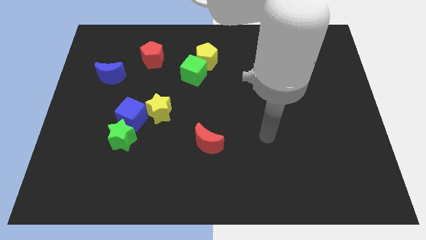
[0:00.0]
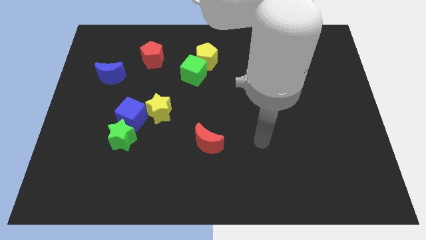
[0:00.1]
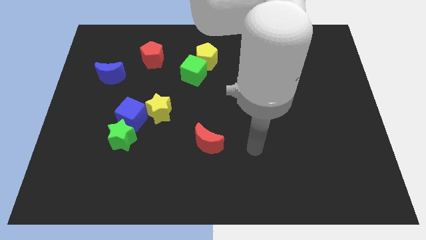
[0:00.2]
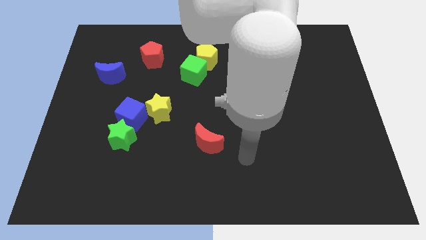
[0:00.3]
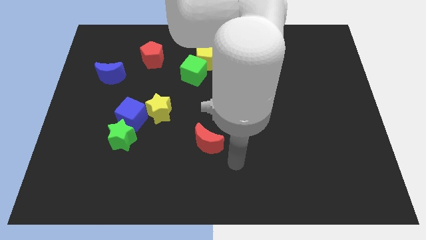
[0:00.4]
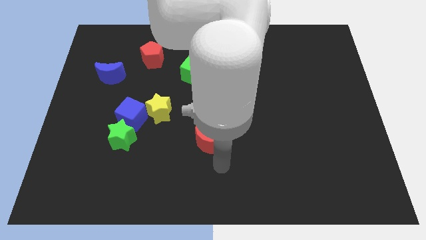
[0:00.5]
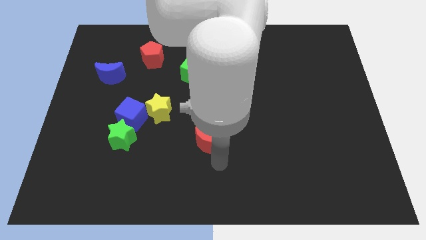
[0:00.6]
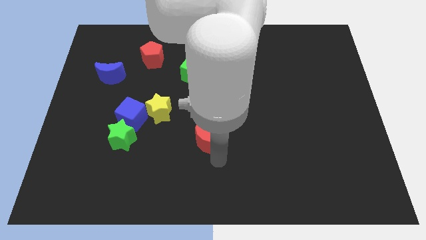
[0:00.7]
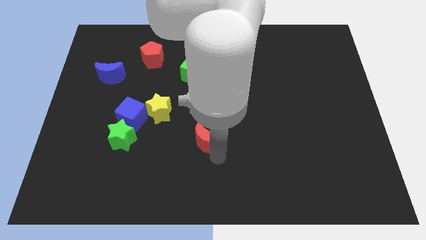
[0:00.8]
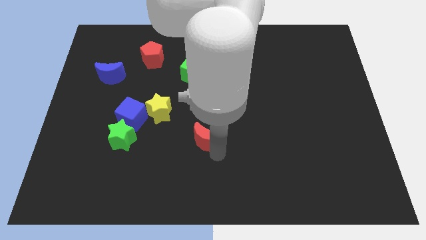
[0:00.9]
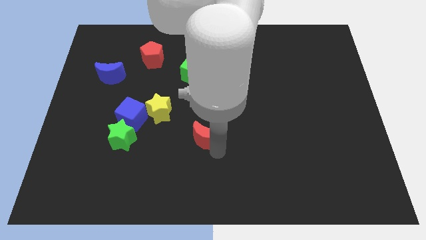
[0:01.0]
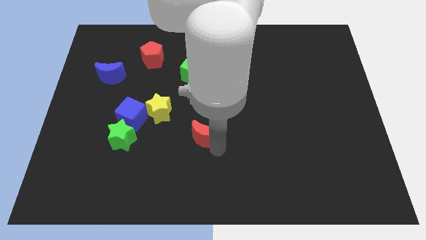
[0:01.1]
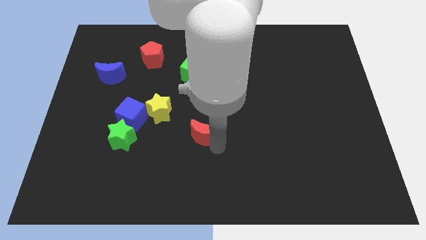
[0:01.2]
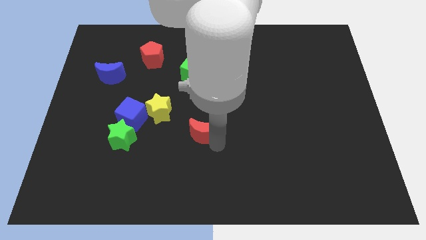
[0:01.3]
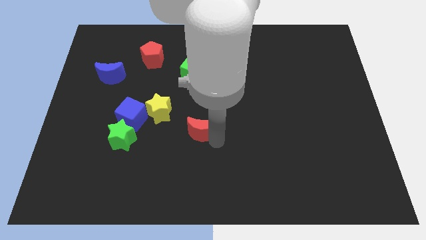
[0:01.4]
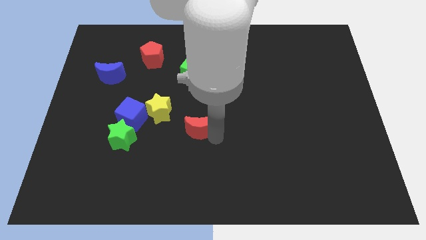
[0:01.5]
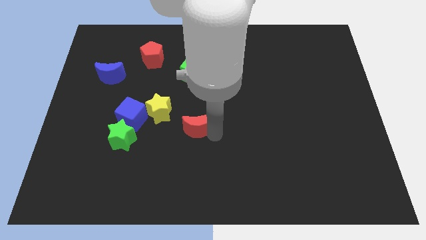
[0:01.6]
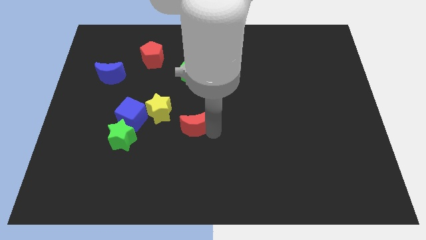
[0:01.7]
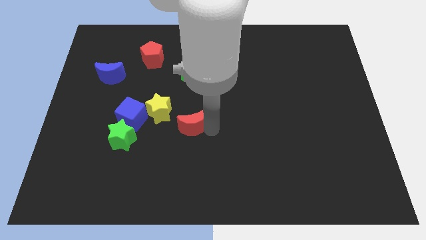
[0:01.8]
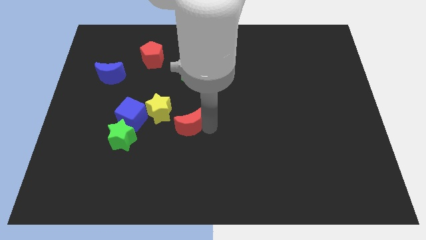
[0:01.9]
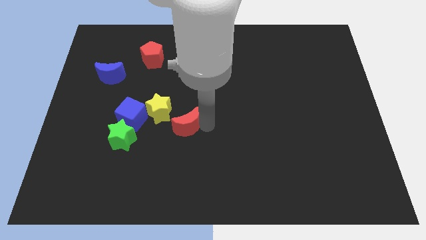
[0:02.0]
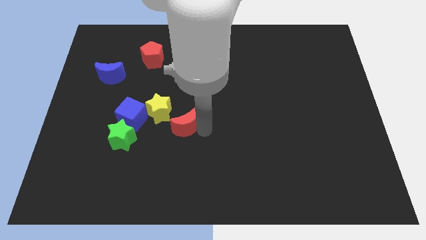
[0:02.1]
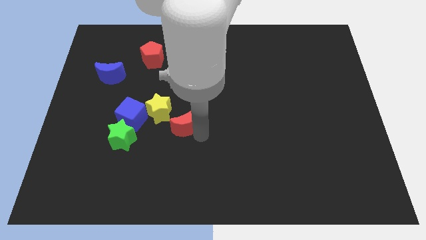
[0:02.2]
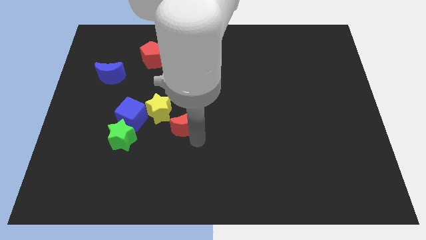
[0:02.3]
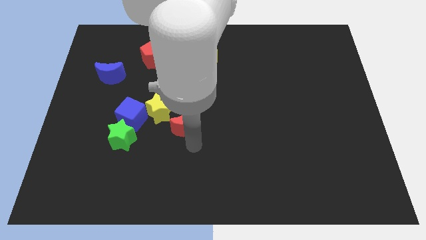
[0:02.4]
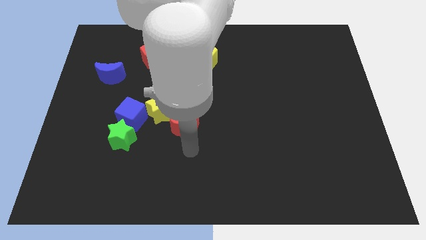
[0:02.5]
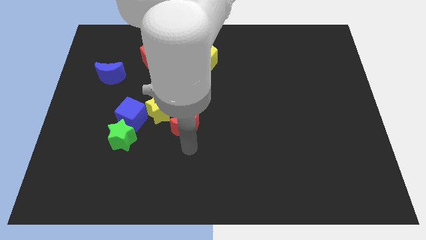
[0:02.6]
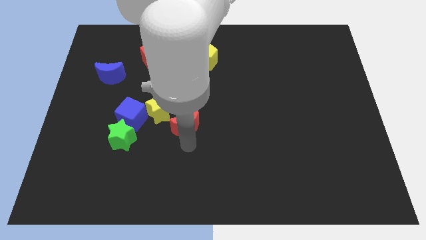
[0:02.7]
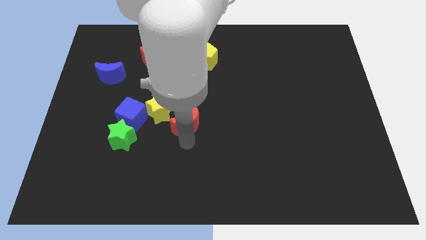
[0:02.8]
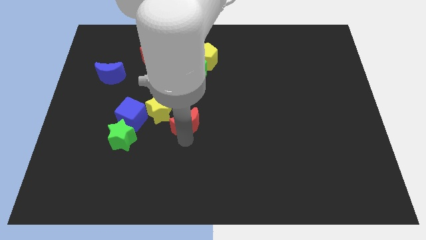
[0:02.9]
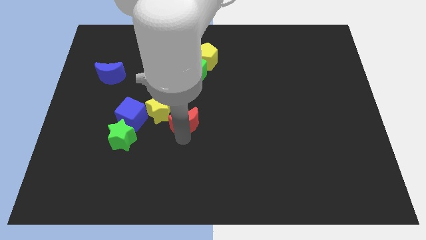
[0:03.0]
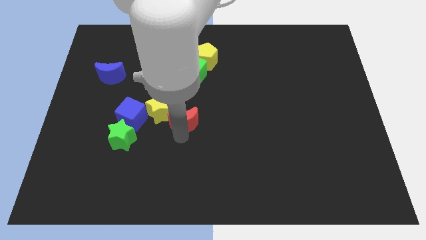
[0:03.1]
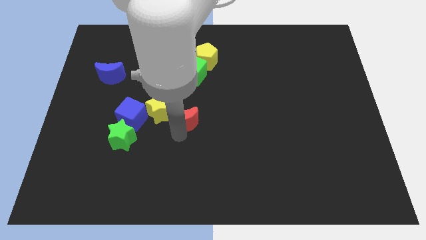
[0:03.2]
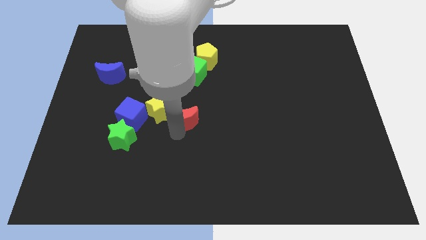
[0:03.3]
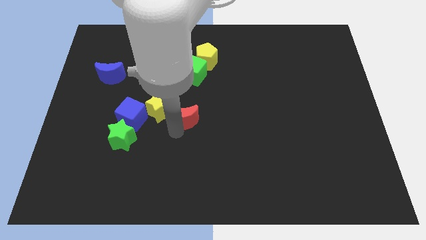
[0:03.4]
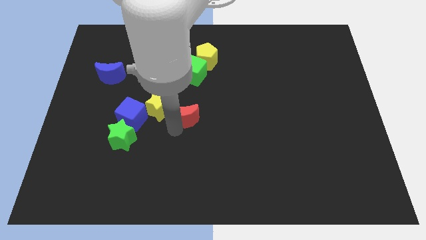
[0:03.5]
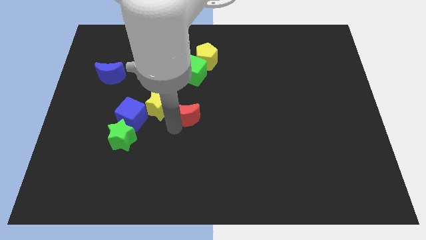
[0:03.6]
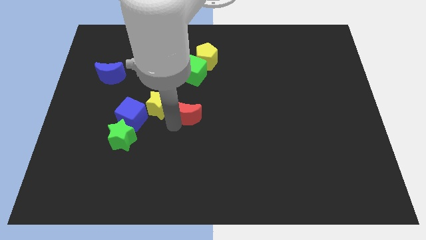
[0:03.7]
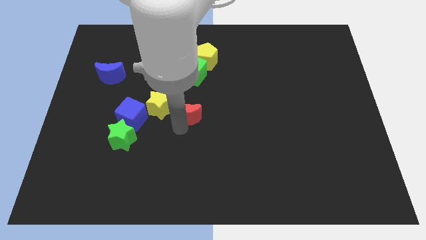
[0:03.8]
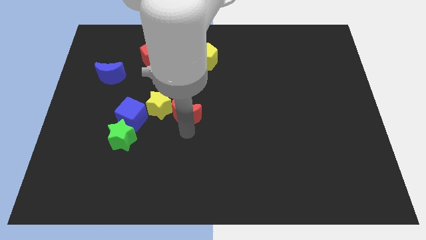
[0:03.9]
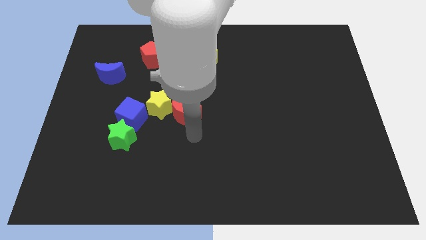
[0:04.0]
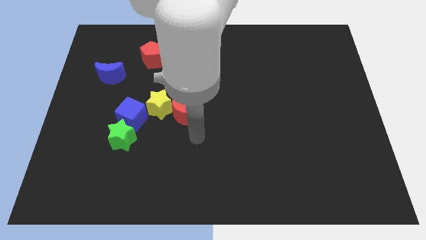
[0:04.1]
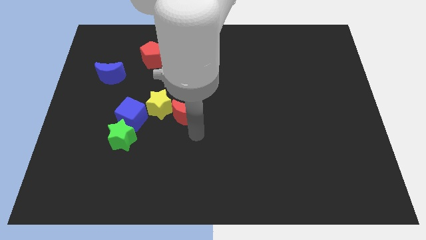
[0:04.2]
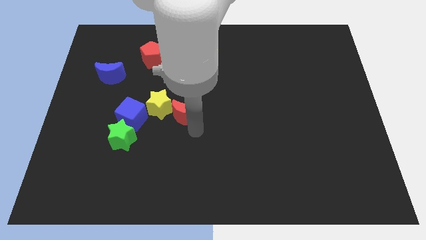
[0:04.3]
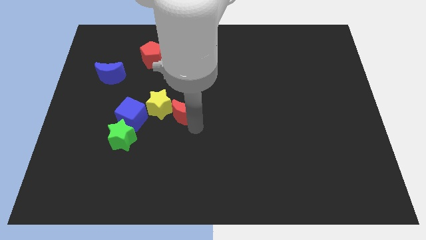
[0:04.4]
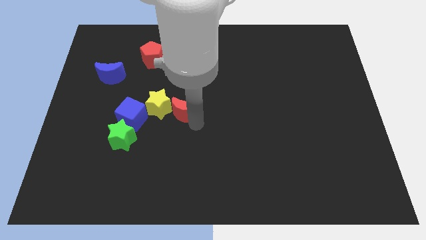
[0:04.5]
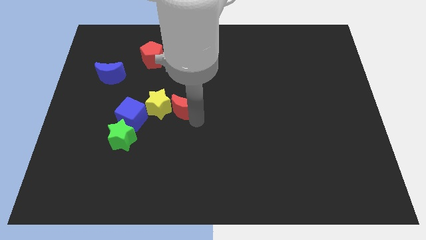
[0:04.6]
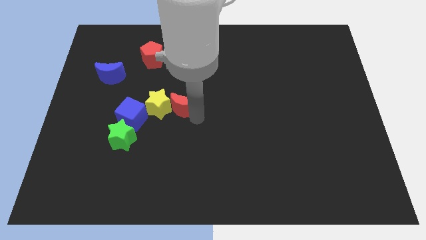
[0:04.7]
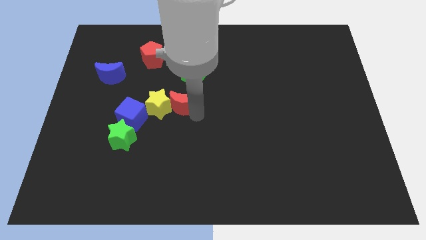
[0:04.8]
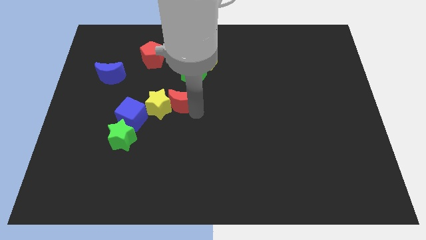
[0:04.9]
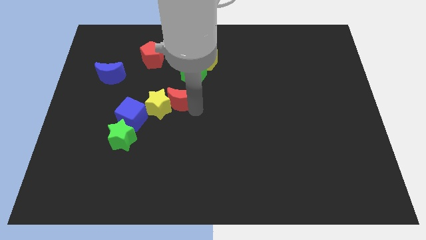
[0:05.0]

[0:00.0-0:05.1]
put the red moon to the bottom left side of the green cube

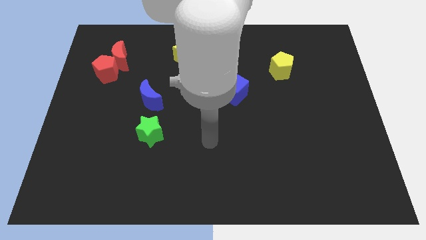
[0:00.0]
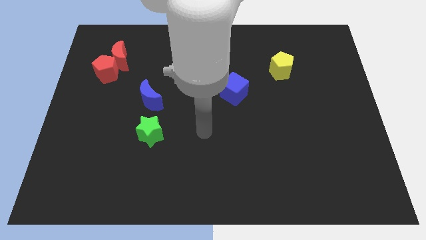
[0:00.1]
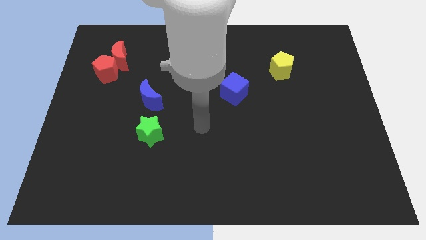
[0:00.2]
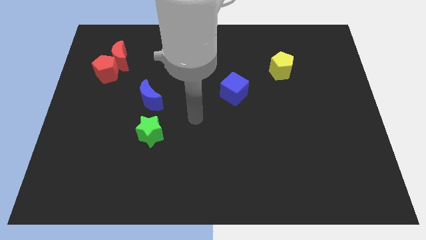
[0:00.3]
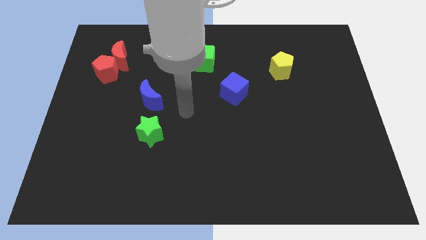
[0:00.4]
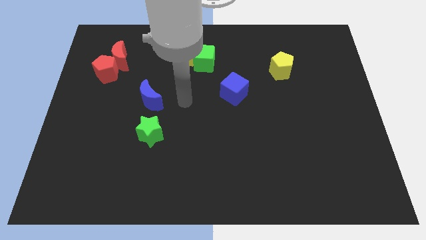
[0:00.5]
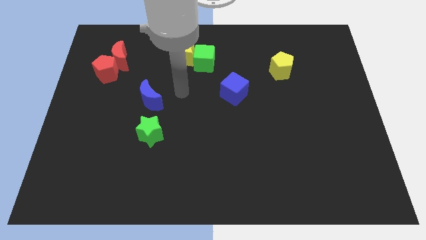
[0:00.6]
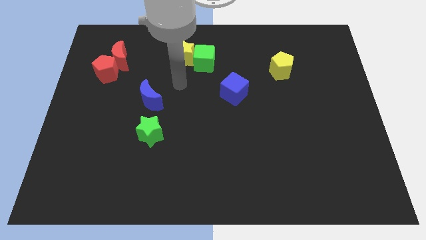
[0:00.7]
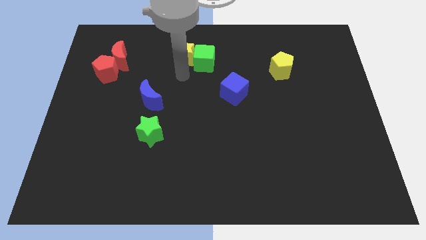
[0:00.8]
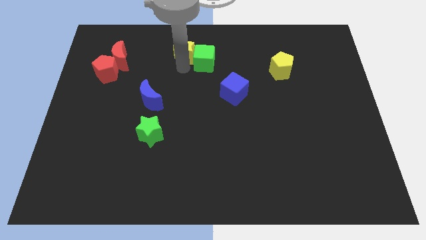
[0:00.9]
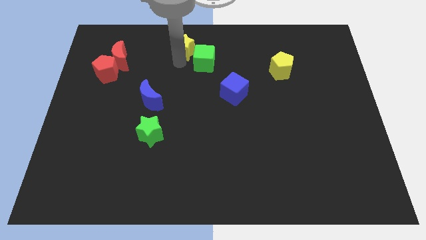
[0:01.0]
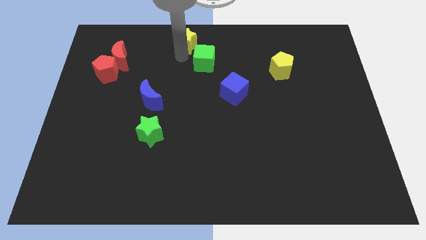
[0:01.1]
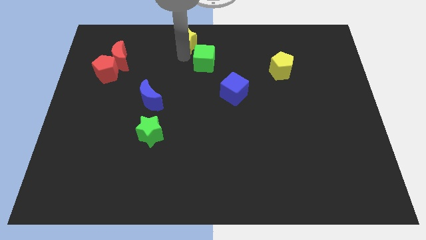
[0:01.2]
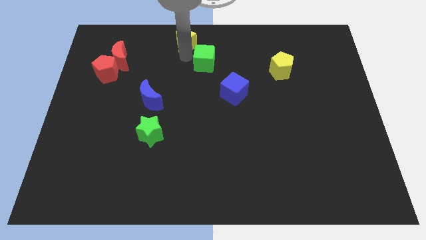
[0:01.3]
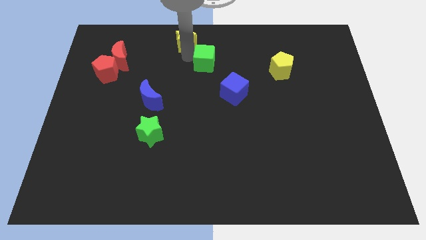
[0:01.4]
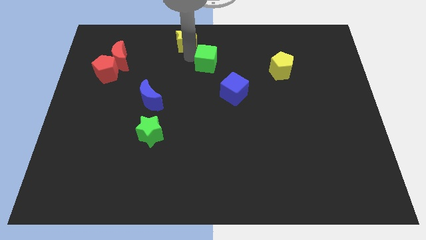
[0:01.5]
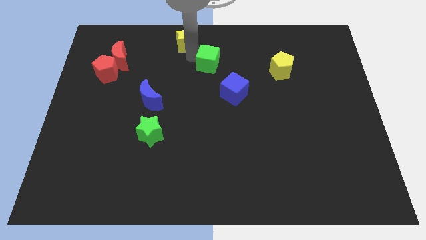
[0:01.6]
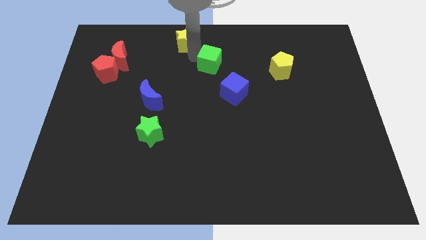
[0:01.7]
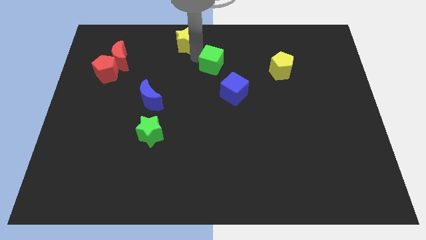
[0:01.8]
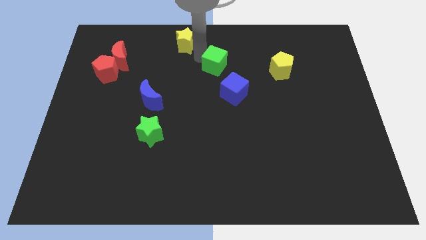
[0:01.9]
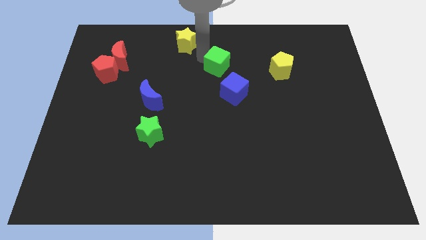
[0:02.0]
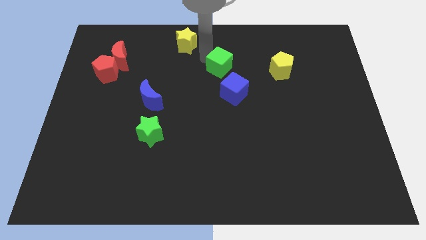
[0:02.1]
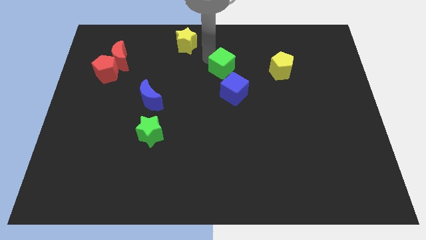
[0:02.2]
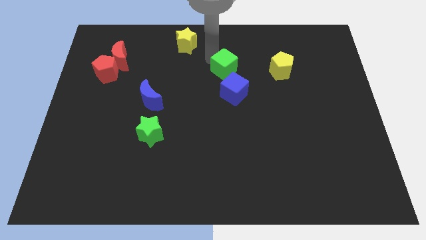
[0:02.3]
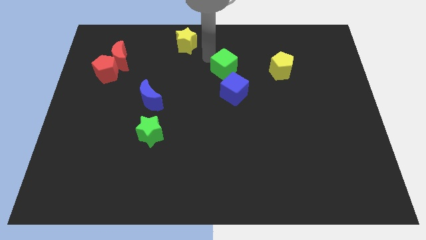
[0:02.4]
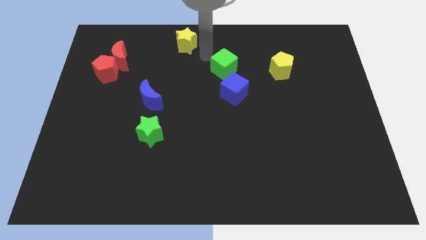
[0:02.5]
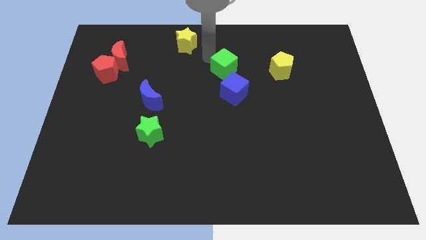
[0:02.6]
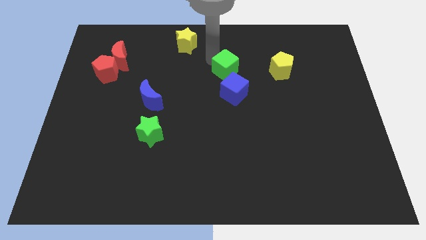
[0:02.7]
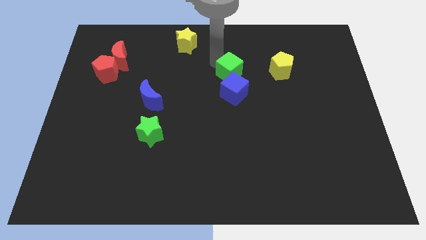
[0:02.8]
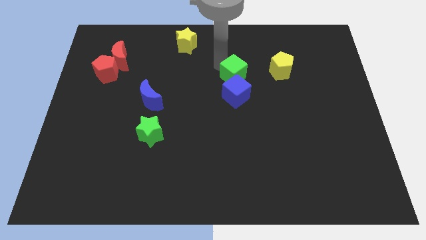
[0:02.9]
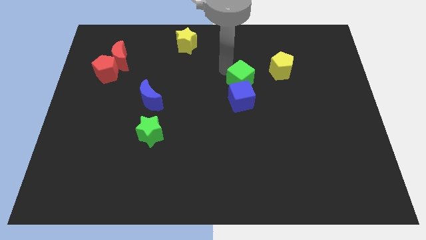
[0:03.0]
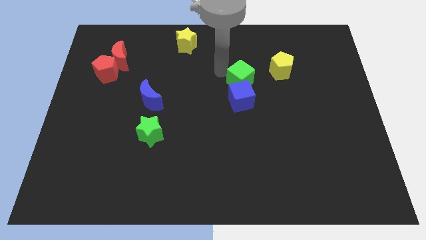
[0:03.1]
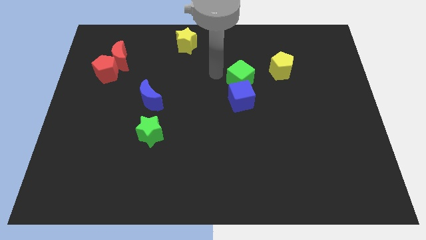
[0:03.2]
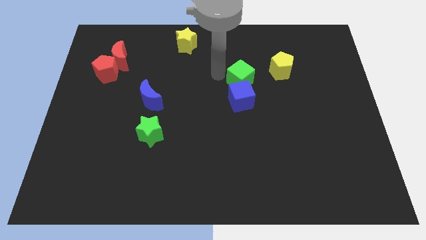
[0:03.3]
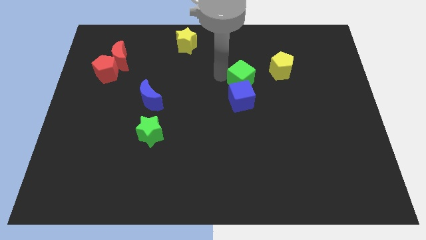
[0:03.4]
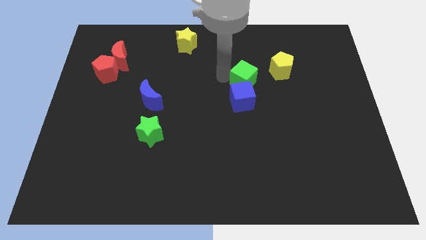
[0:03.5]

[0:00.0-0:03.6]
move the green cube to the bottom left of the yellow pentagon
